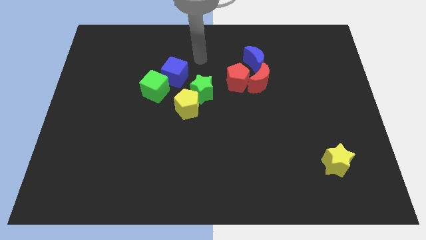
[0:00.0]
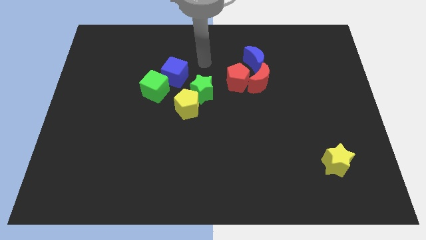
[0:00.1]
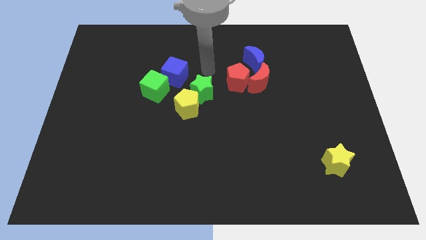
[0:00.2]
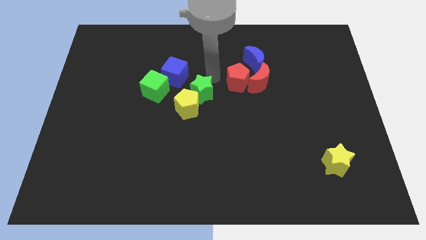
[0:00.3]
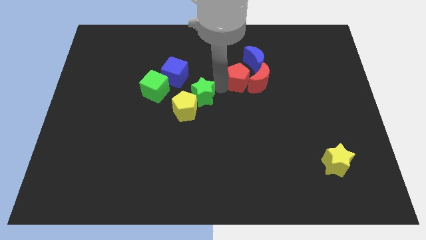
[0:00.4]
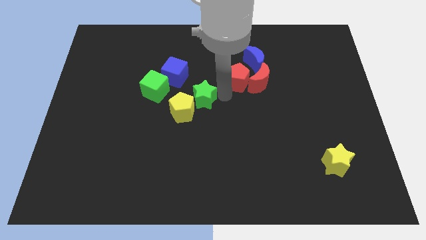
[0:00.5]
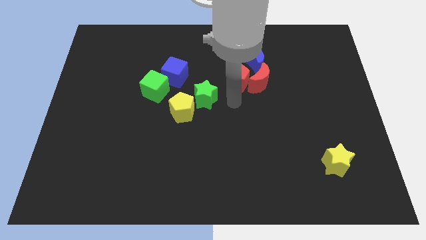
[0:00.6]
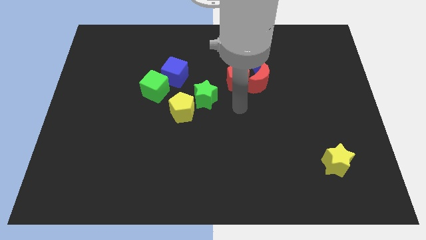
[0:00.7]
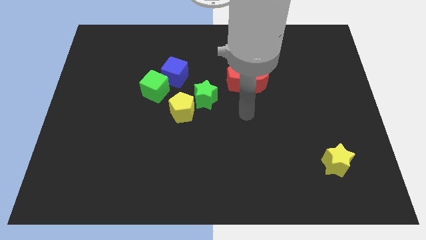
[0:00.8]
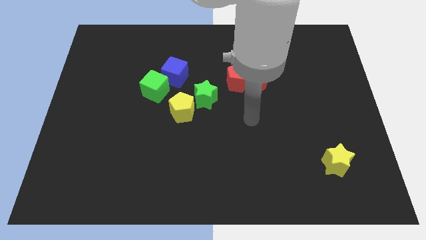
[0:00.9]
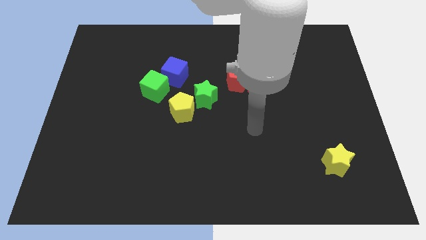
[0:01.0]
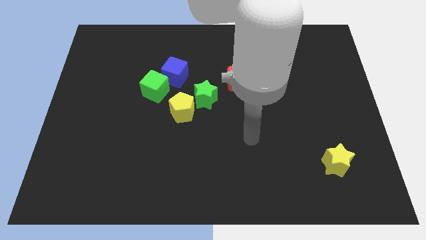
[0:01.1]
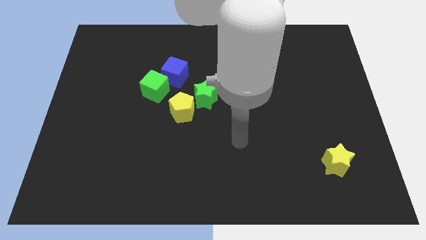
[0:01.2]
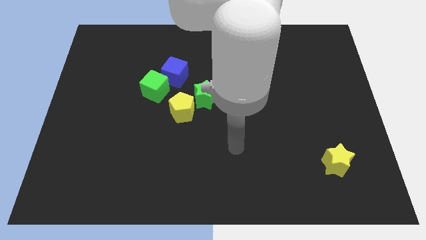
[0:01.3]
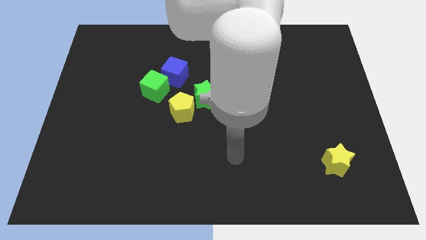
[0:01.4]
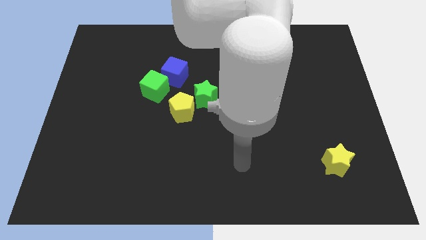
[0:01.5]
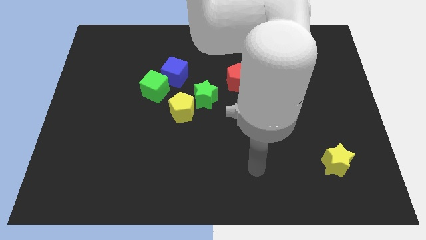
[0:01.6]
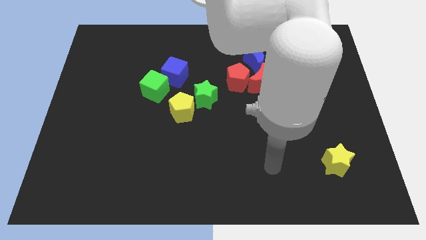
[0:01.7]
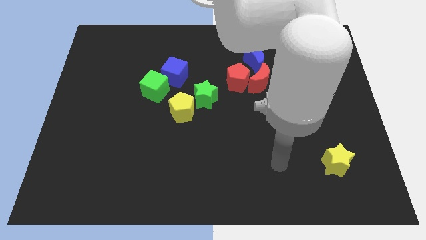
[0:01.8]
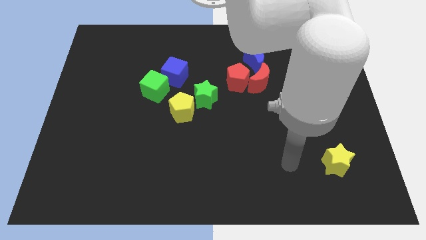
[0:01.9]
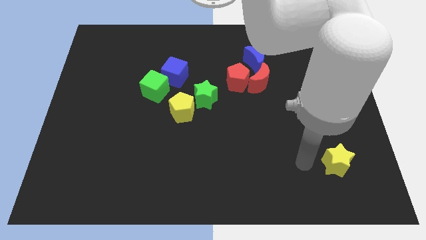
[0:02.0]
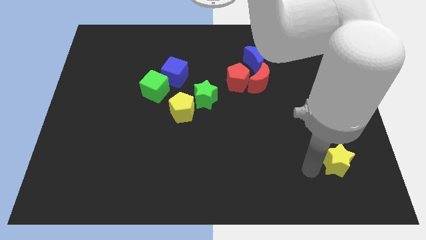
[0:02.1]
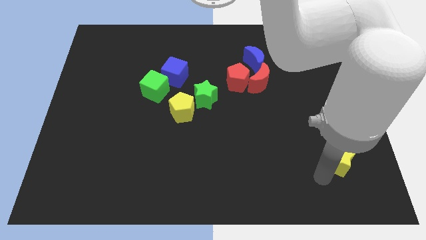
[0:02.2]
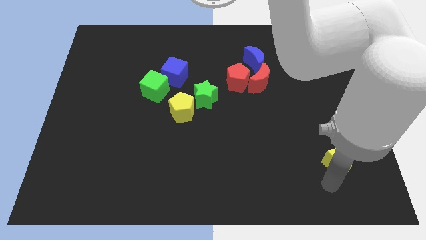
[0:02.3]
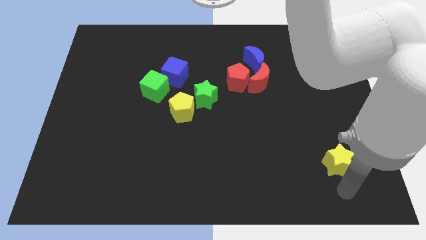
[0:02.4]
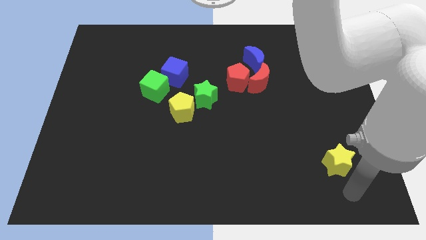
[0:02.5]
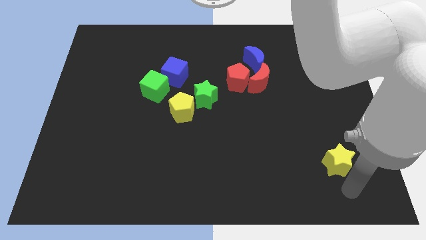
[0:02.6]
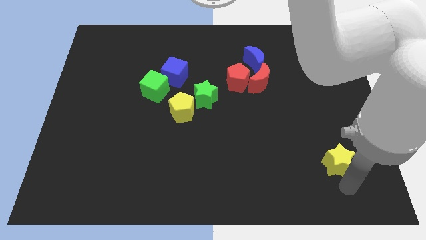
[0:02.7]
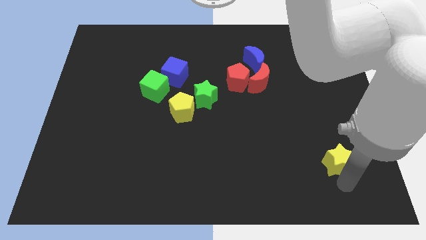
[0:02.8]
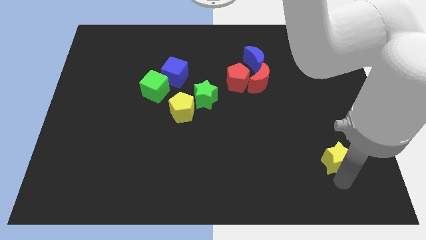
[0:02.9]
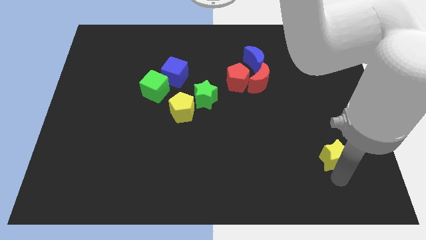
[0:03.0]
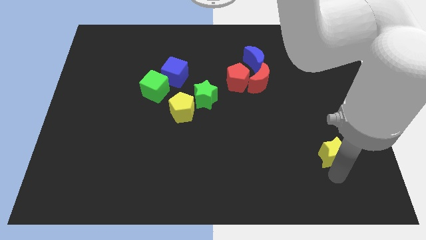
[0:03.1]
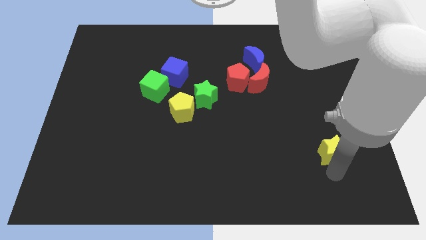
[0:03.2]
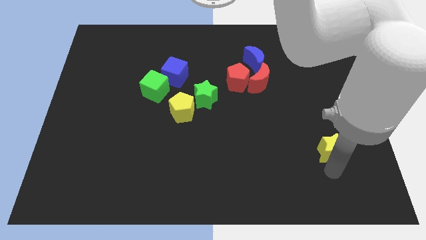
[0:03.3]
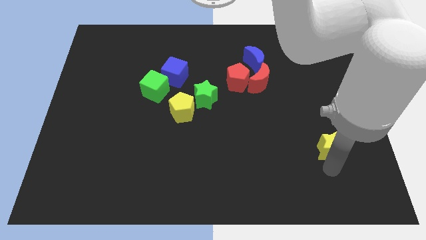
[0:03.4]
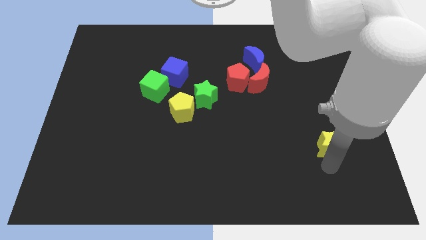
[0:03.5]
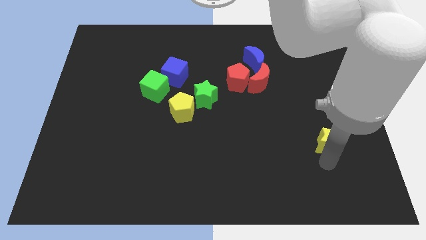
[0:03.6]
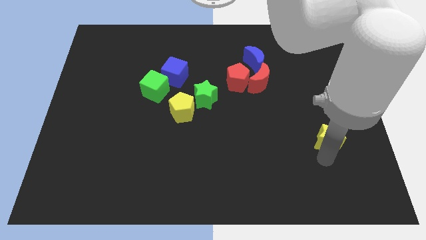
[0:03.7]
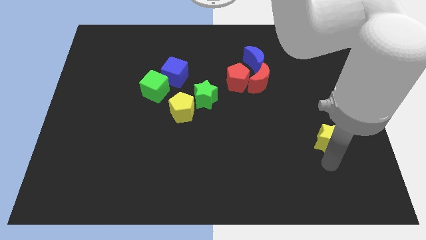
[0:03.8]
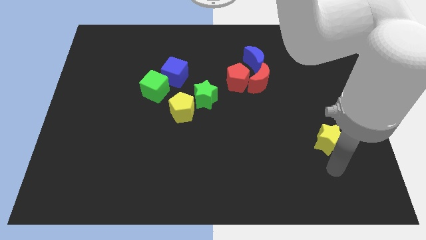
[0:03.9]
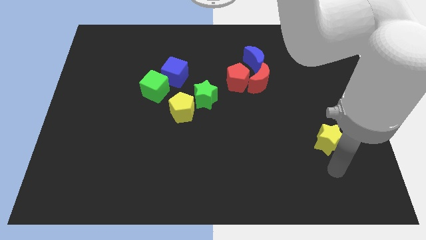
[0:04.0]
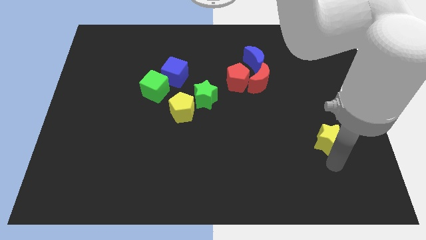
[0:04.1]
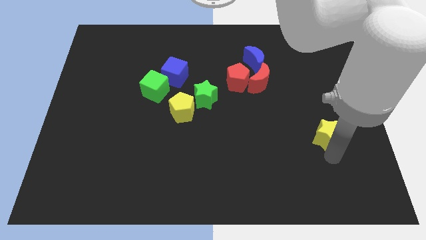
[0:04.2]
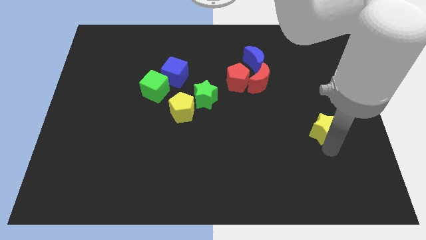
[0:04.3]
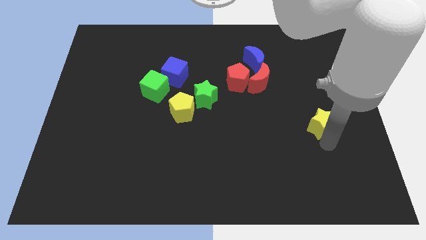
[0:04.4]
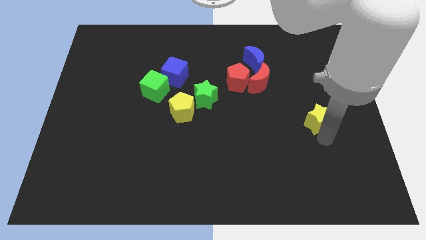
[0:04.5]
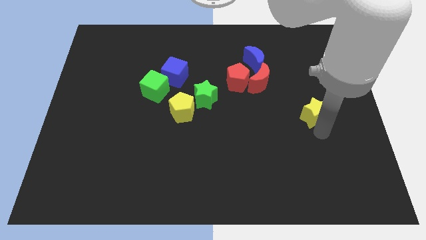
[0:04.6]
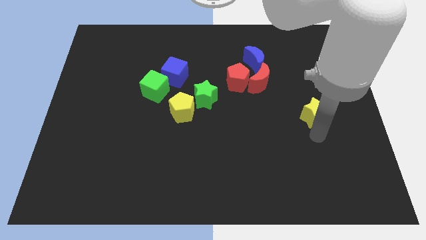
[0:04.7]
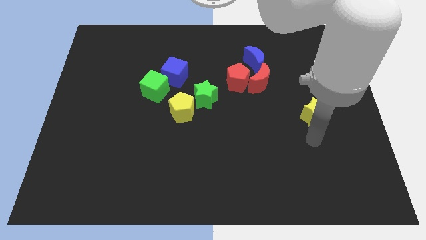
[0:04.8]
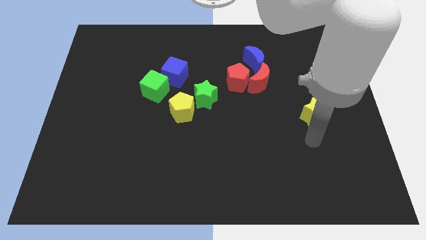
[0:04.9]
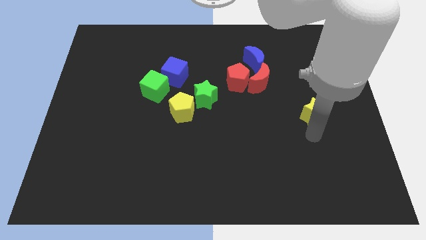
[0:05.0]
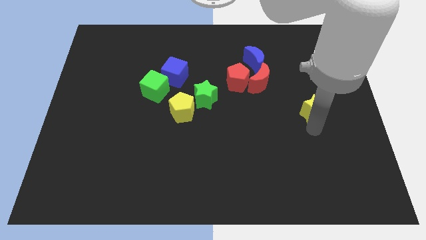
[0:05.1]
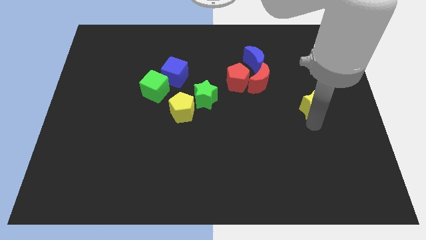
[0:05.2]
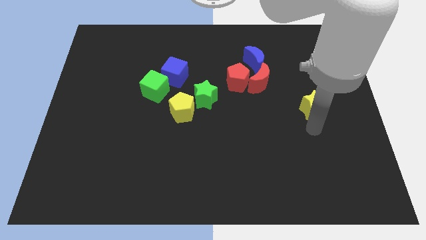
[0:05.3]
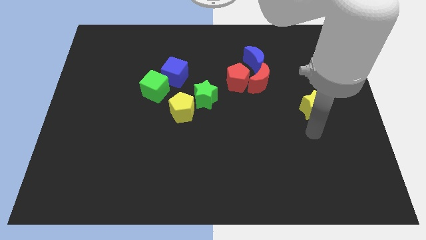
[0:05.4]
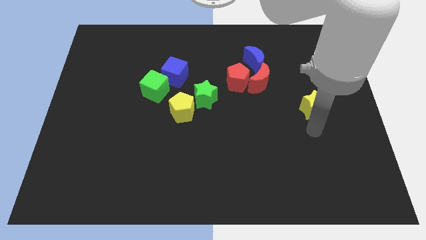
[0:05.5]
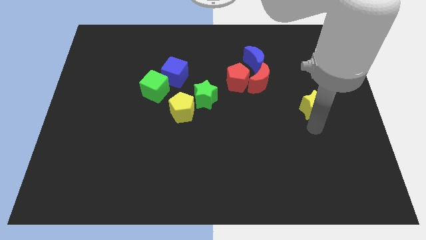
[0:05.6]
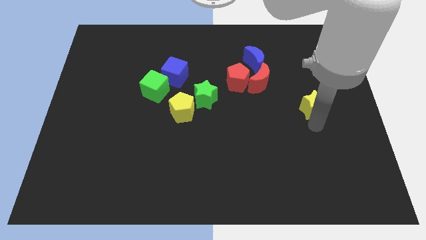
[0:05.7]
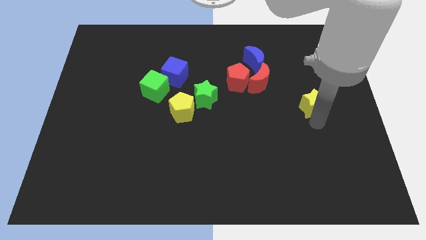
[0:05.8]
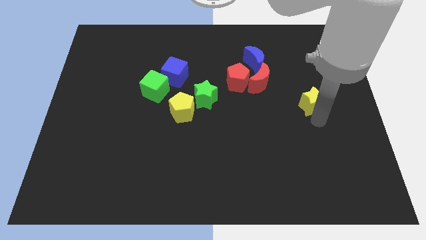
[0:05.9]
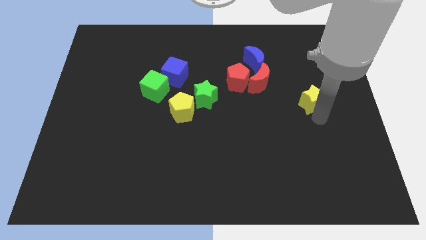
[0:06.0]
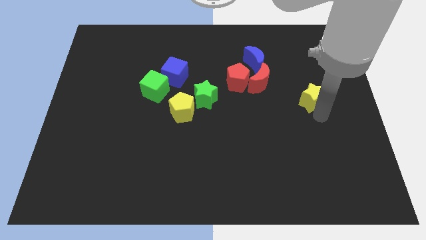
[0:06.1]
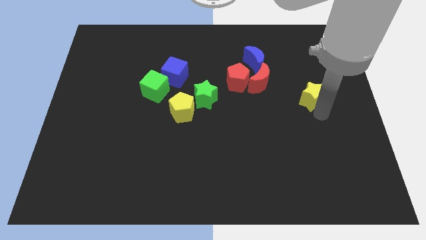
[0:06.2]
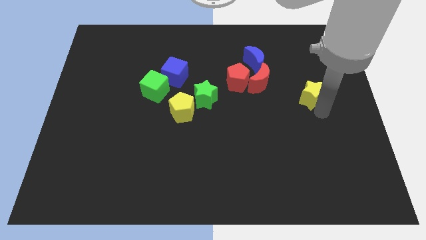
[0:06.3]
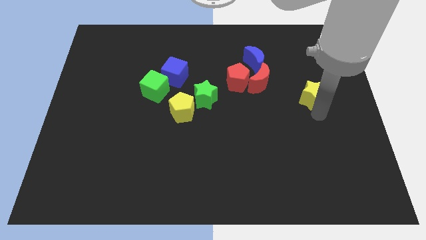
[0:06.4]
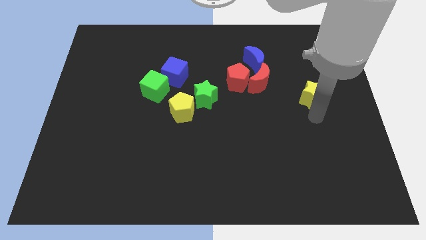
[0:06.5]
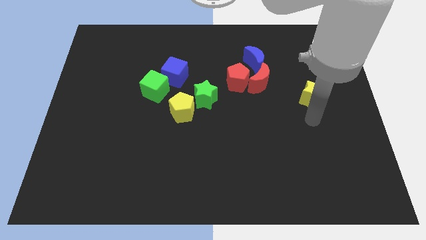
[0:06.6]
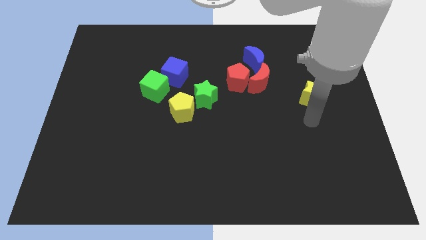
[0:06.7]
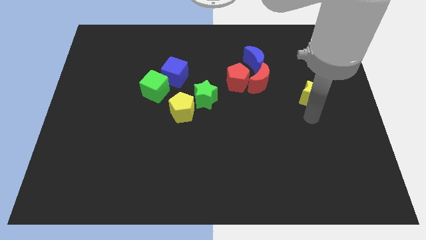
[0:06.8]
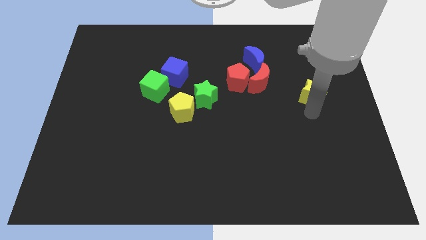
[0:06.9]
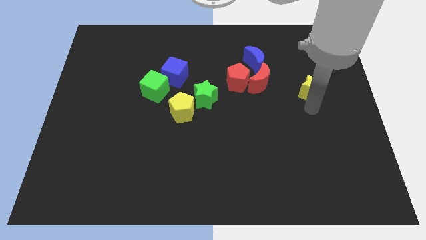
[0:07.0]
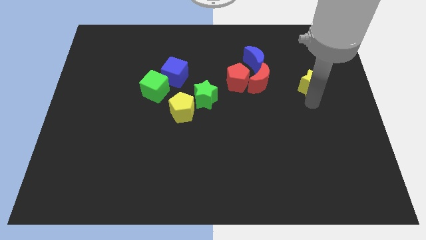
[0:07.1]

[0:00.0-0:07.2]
push the yellow star upwards

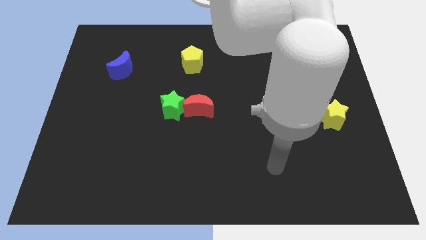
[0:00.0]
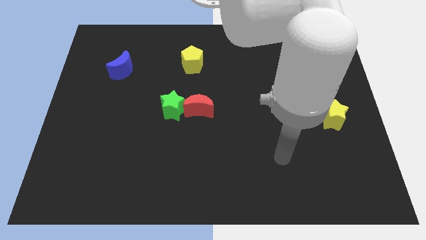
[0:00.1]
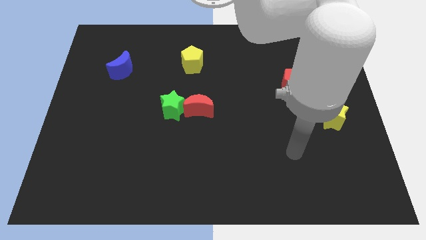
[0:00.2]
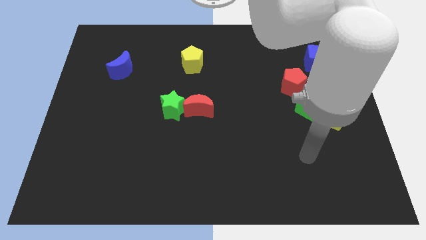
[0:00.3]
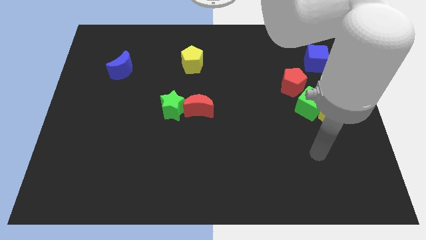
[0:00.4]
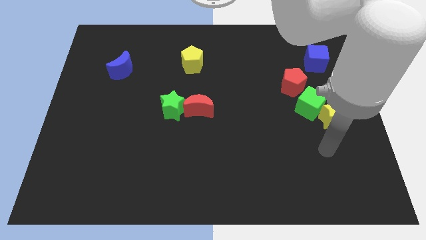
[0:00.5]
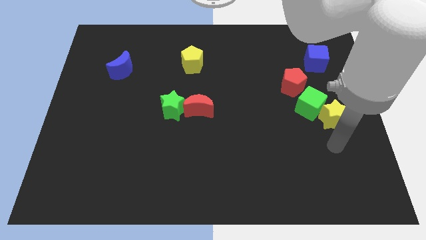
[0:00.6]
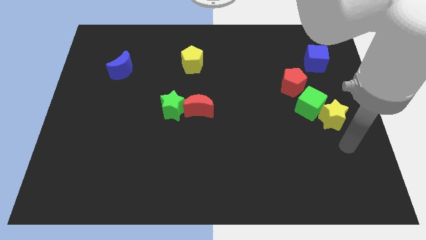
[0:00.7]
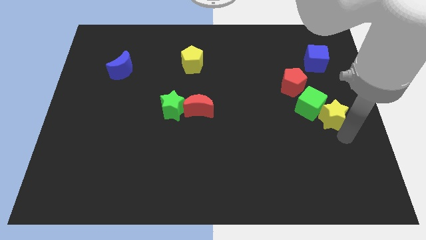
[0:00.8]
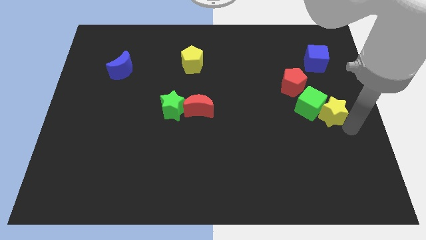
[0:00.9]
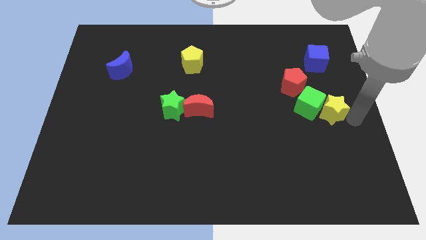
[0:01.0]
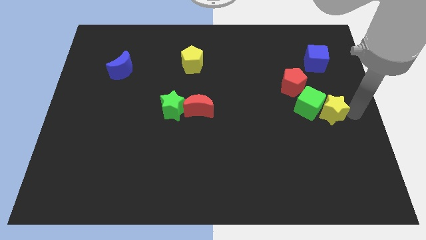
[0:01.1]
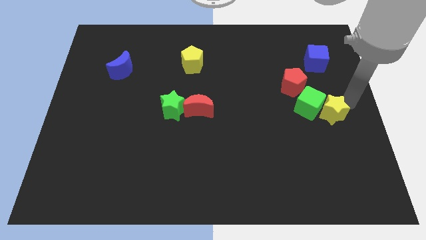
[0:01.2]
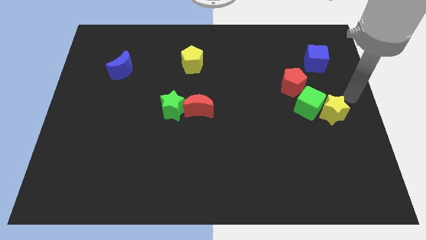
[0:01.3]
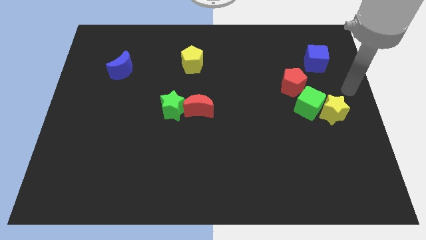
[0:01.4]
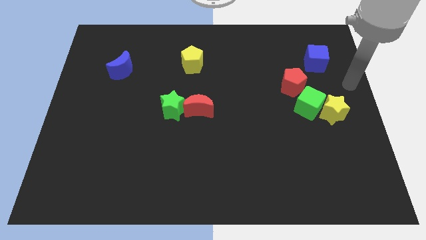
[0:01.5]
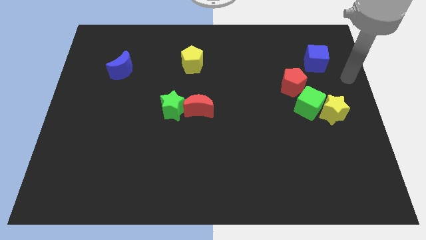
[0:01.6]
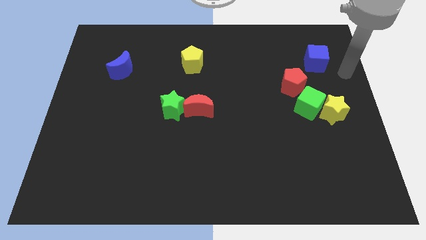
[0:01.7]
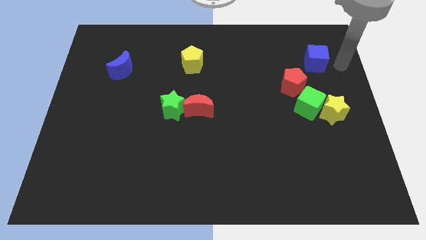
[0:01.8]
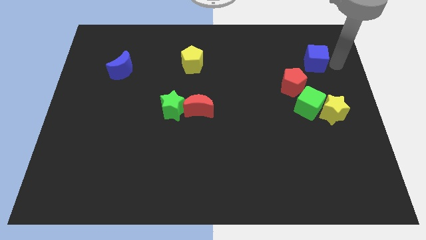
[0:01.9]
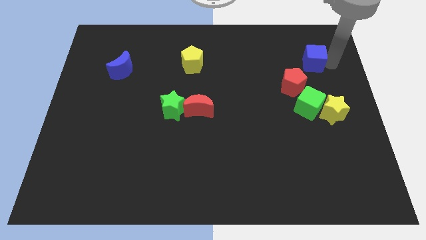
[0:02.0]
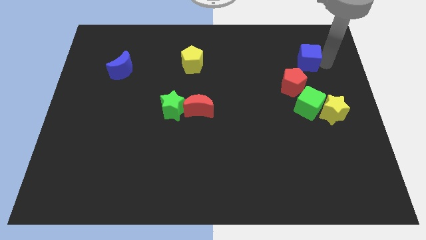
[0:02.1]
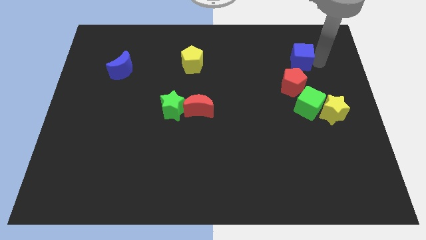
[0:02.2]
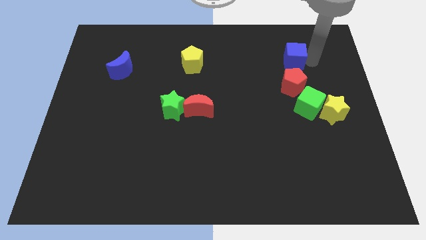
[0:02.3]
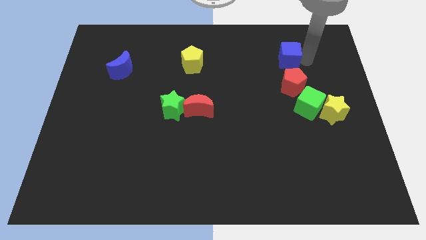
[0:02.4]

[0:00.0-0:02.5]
slide the blue cube slightly left
